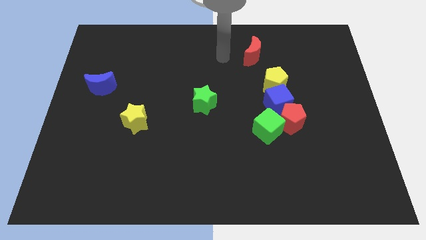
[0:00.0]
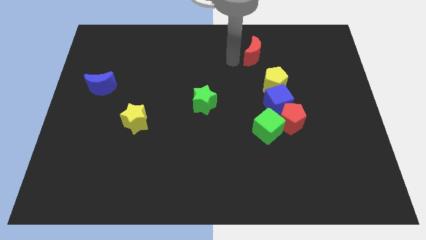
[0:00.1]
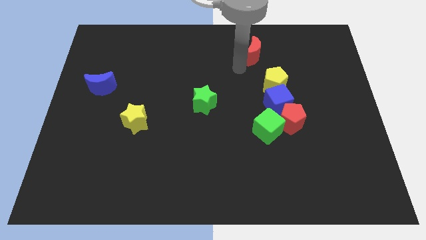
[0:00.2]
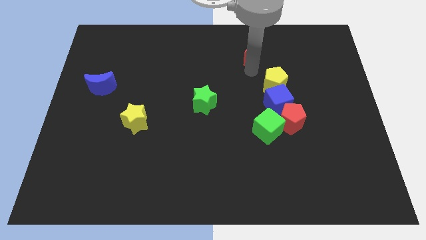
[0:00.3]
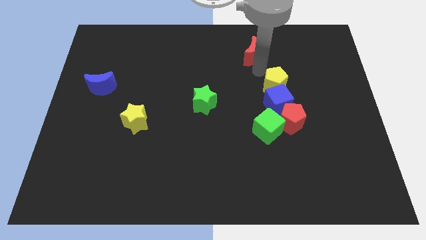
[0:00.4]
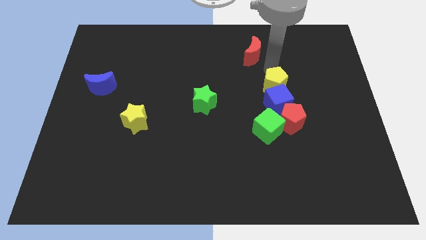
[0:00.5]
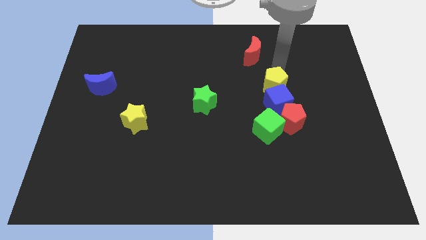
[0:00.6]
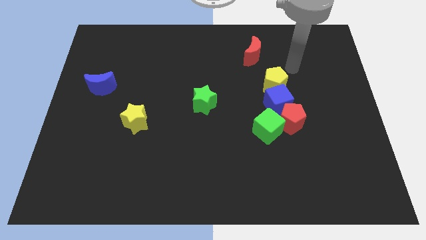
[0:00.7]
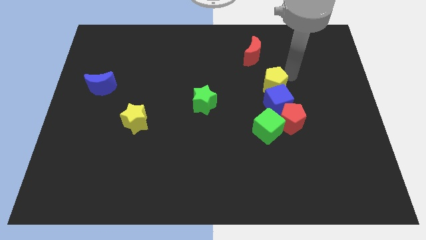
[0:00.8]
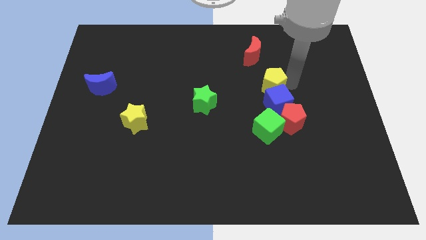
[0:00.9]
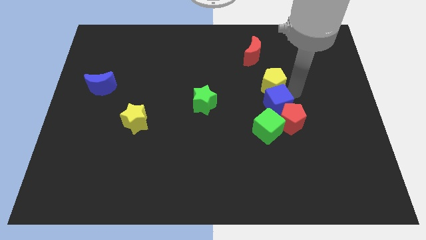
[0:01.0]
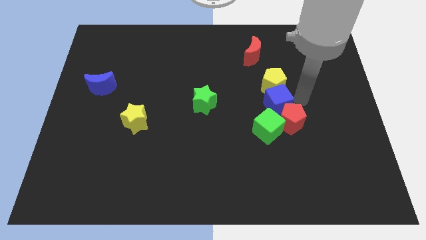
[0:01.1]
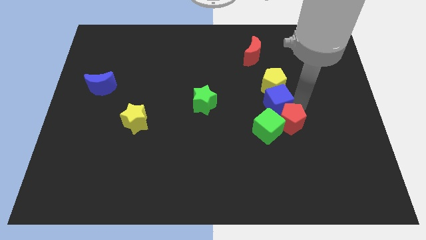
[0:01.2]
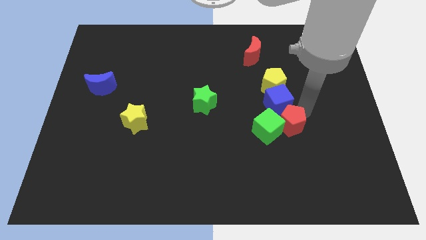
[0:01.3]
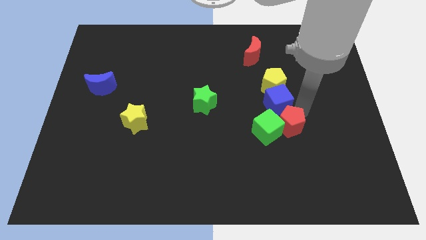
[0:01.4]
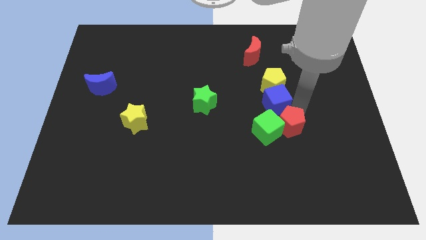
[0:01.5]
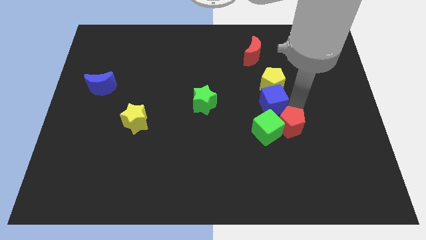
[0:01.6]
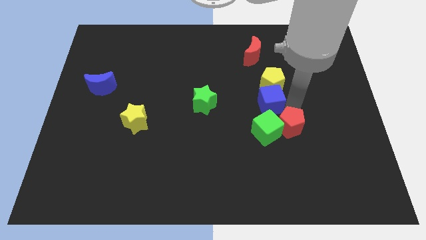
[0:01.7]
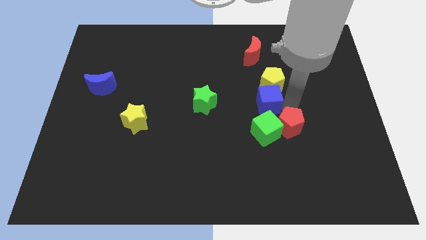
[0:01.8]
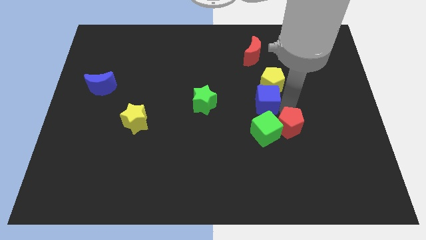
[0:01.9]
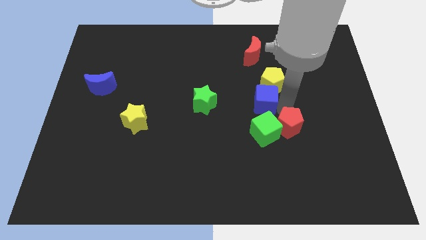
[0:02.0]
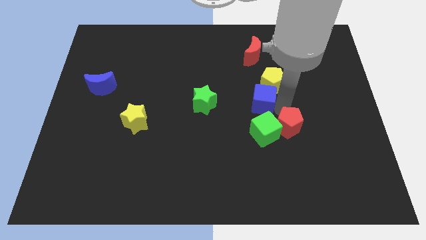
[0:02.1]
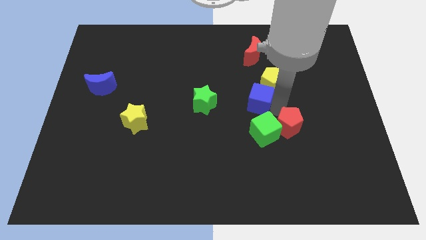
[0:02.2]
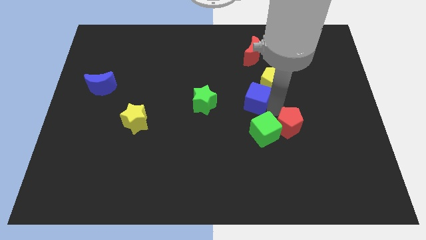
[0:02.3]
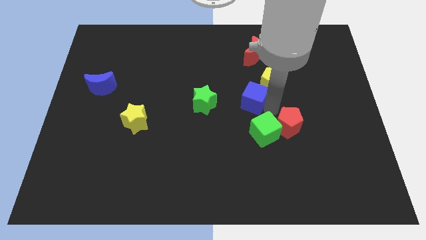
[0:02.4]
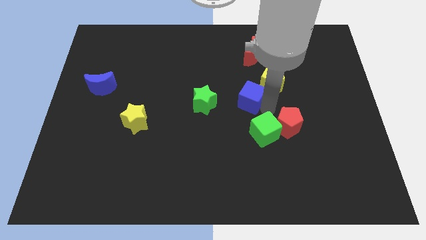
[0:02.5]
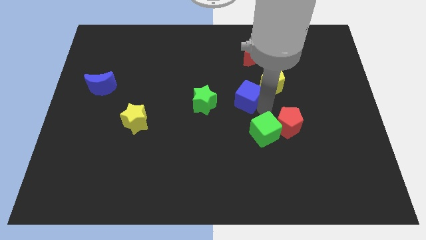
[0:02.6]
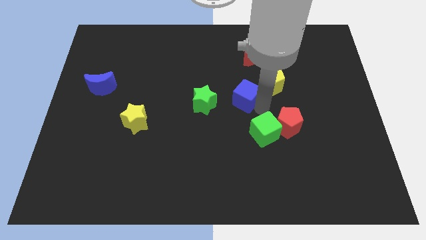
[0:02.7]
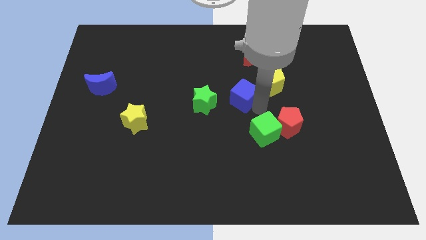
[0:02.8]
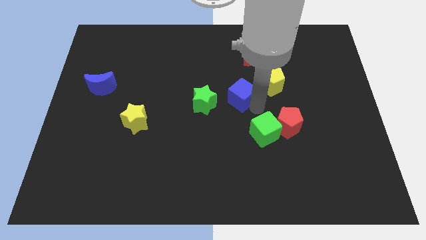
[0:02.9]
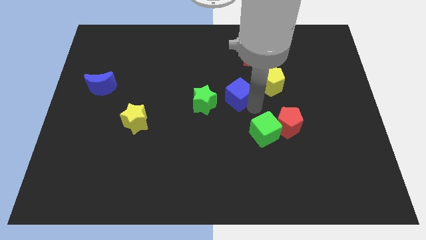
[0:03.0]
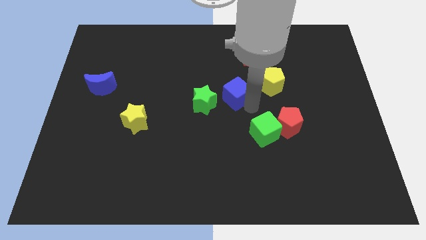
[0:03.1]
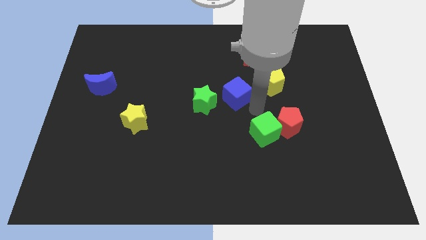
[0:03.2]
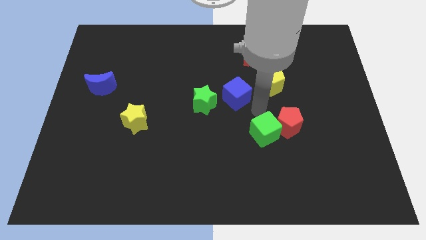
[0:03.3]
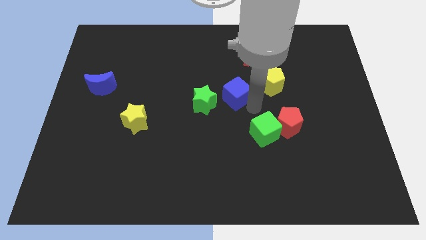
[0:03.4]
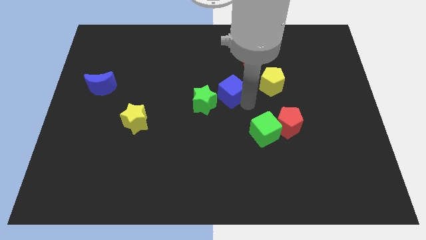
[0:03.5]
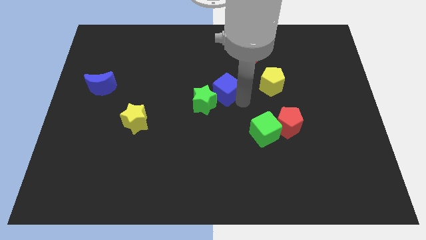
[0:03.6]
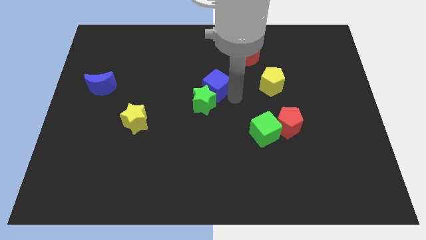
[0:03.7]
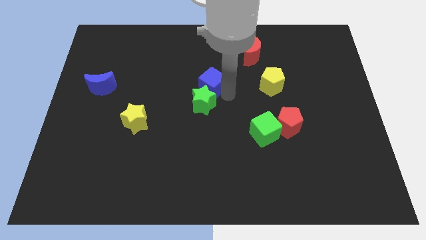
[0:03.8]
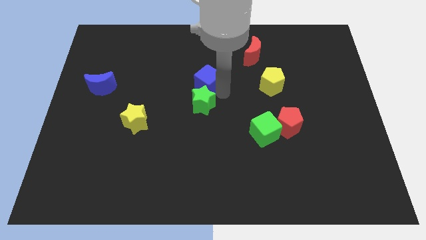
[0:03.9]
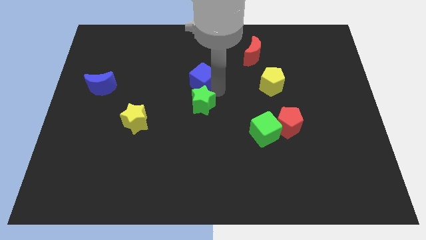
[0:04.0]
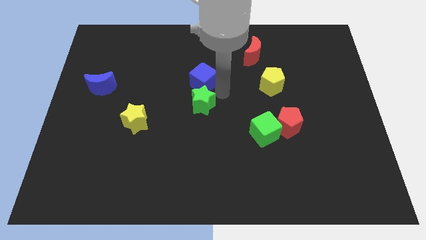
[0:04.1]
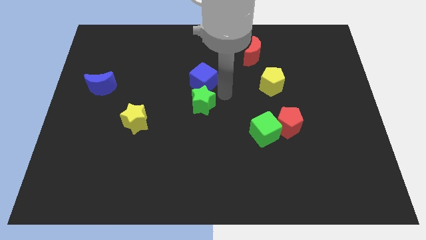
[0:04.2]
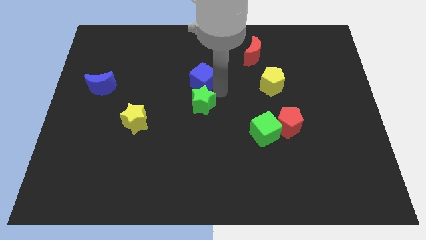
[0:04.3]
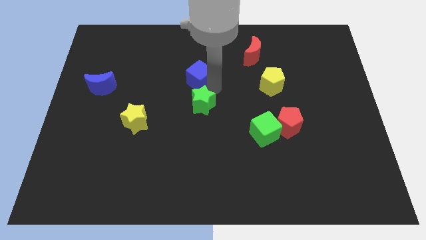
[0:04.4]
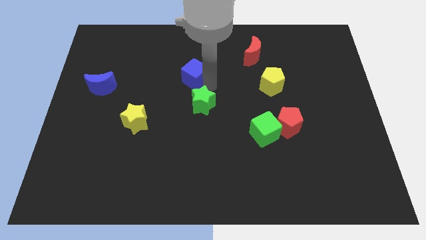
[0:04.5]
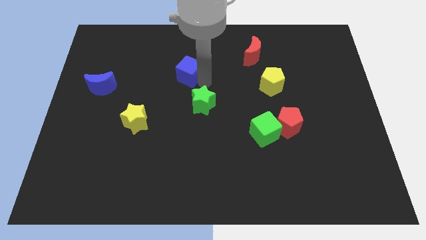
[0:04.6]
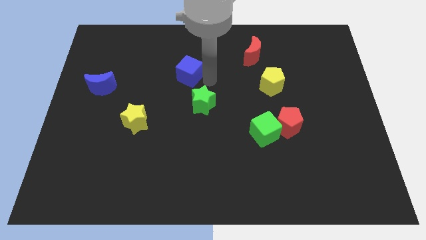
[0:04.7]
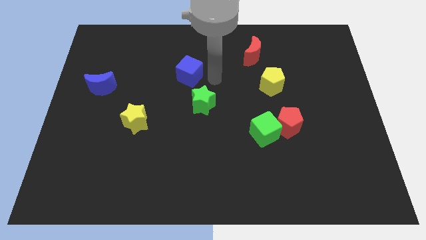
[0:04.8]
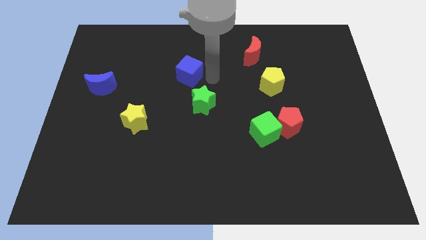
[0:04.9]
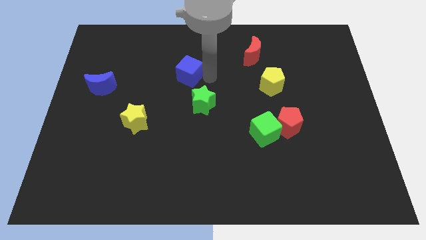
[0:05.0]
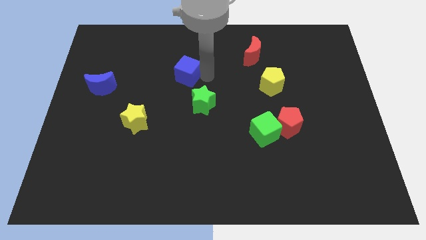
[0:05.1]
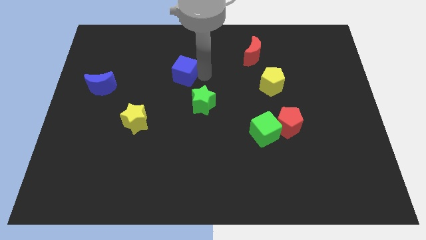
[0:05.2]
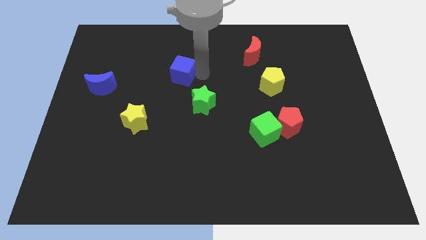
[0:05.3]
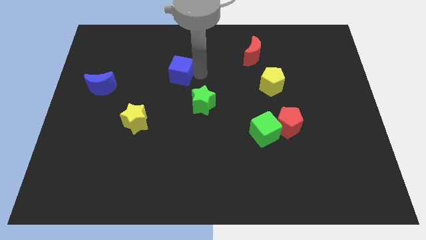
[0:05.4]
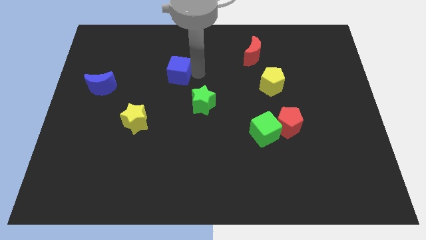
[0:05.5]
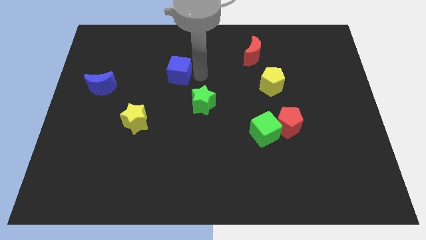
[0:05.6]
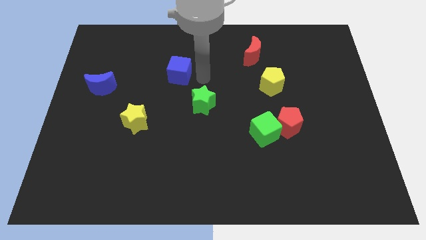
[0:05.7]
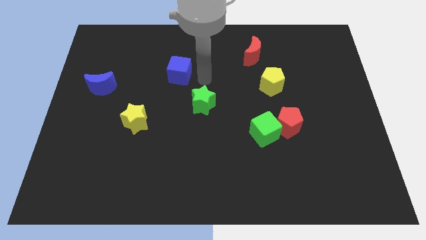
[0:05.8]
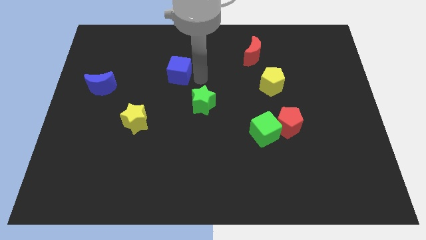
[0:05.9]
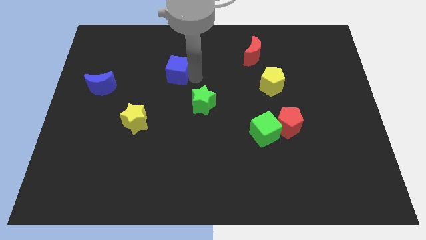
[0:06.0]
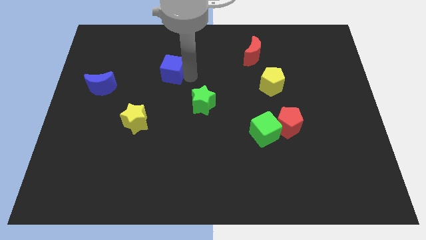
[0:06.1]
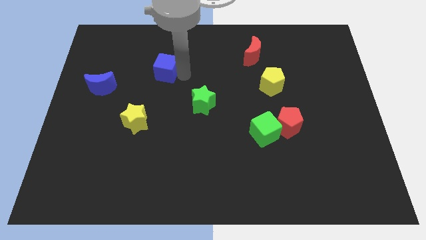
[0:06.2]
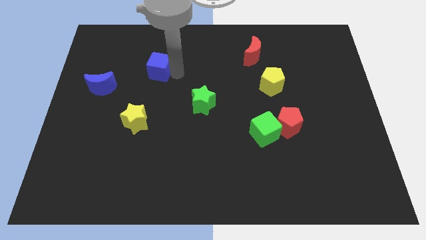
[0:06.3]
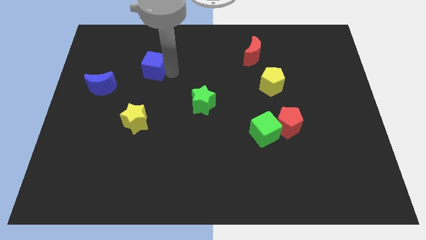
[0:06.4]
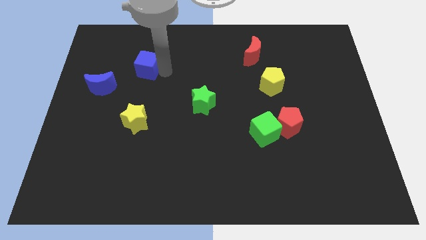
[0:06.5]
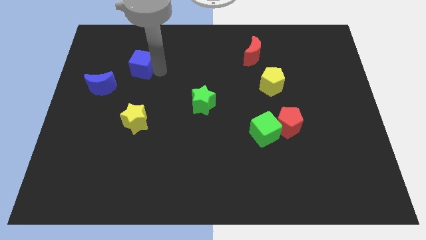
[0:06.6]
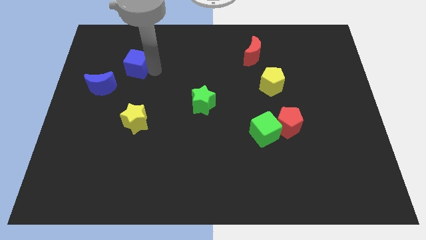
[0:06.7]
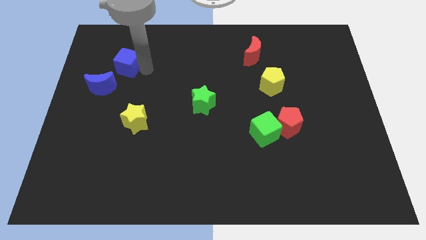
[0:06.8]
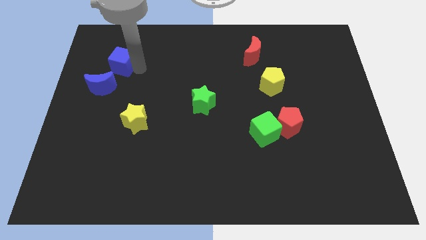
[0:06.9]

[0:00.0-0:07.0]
put the blue cube to the top side of the blue moon
